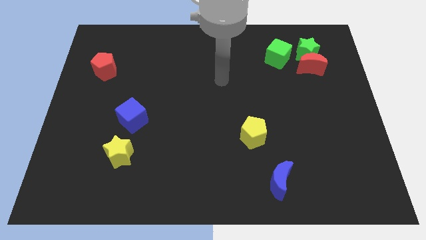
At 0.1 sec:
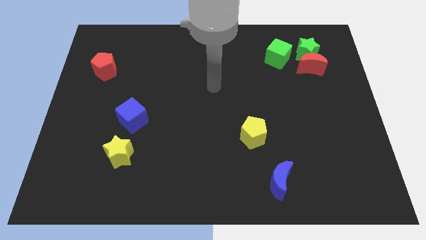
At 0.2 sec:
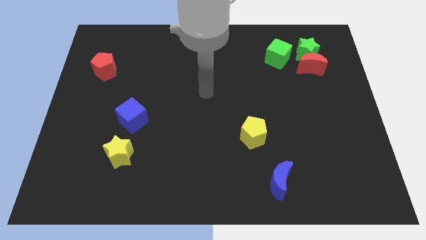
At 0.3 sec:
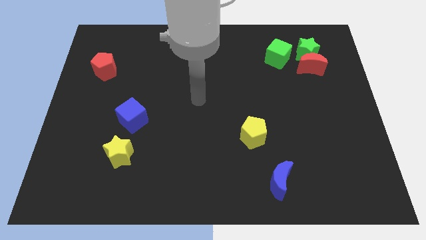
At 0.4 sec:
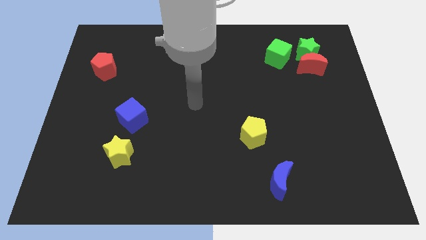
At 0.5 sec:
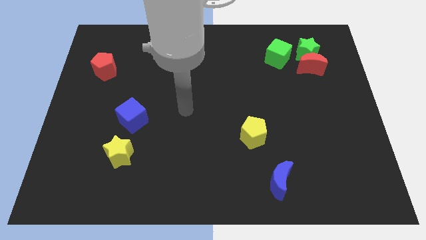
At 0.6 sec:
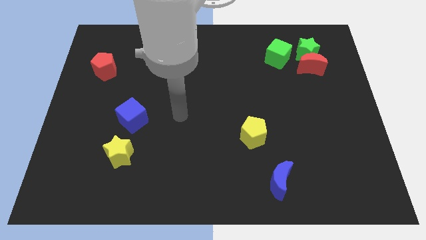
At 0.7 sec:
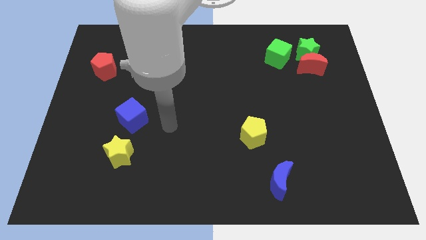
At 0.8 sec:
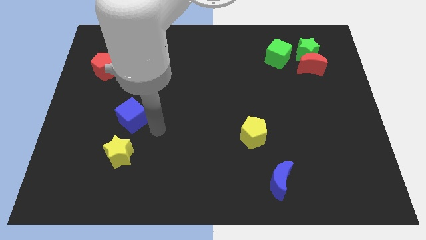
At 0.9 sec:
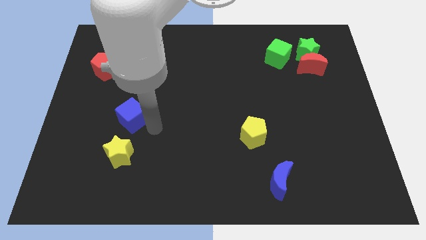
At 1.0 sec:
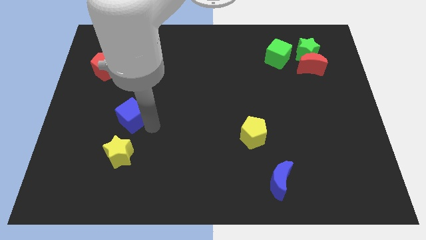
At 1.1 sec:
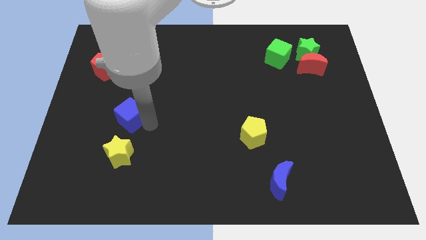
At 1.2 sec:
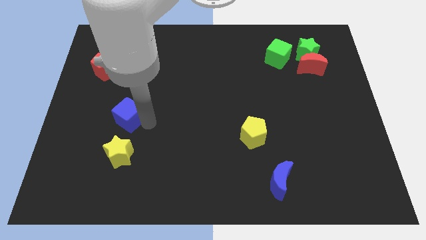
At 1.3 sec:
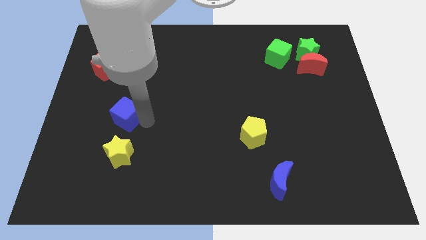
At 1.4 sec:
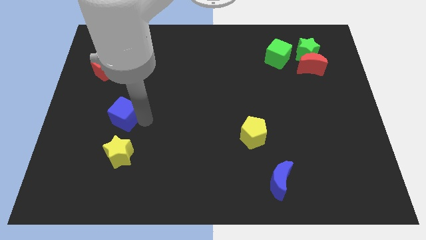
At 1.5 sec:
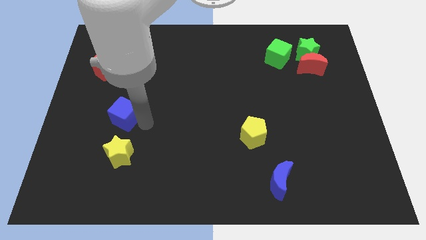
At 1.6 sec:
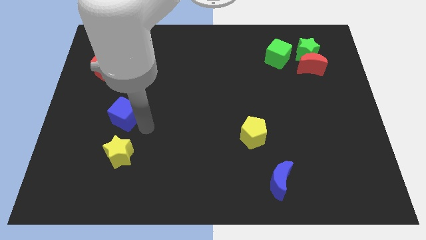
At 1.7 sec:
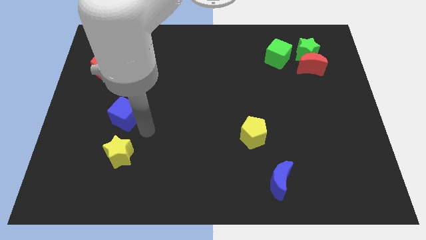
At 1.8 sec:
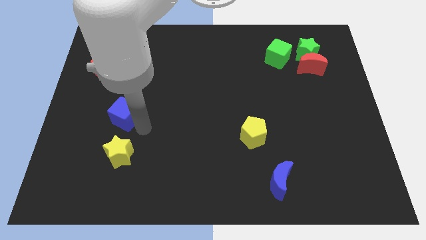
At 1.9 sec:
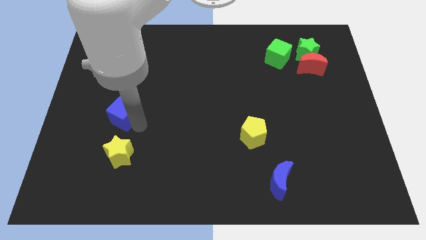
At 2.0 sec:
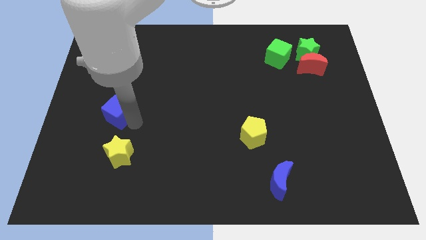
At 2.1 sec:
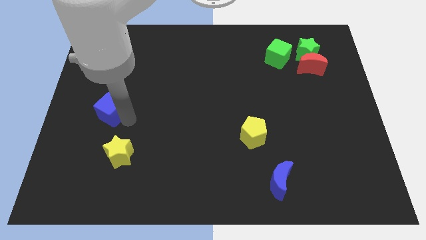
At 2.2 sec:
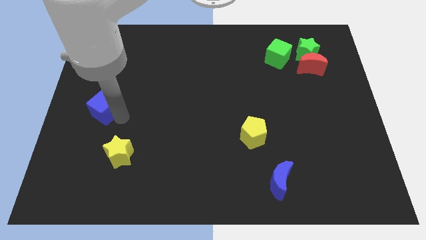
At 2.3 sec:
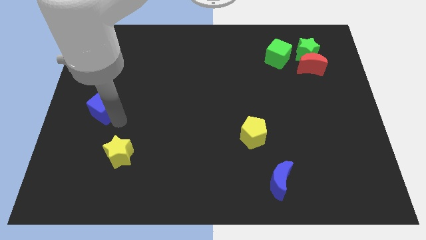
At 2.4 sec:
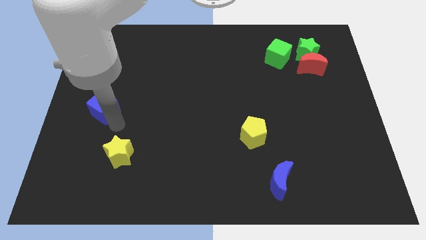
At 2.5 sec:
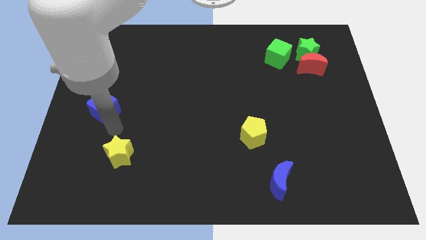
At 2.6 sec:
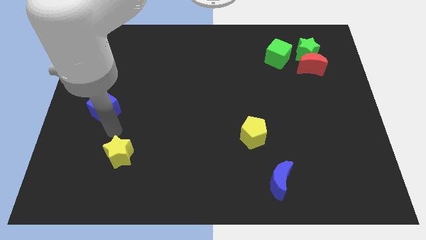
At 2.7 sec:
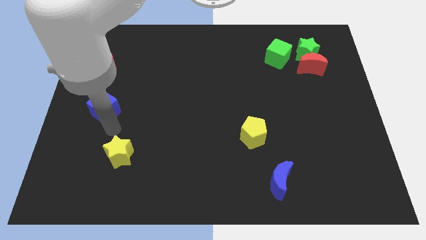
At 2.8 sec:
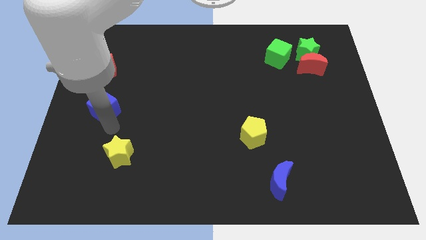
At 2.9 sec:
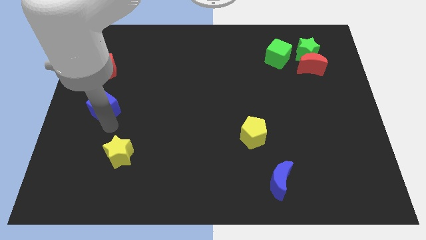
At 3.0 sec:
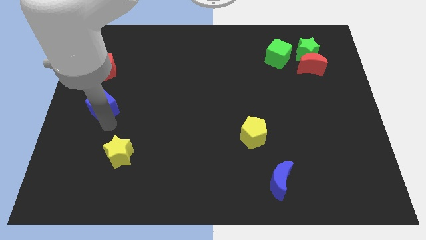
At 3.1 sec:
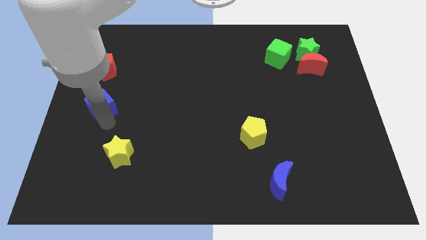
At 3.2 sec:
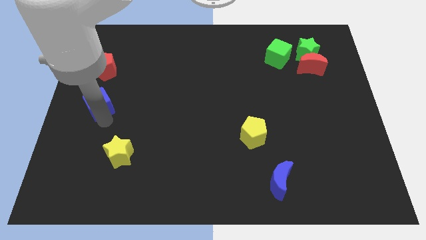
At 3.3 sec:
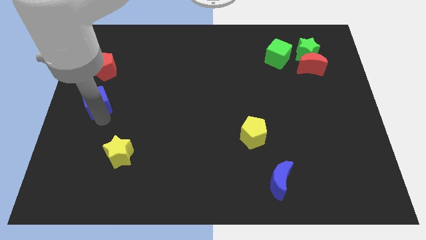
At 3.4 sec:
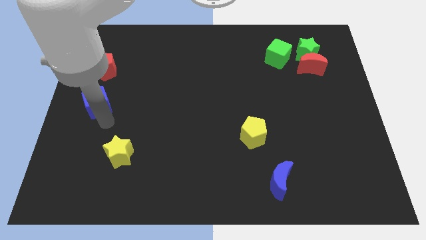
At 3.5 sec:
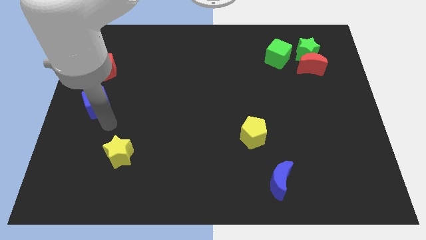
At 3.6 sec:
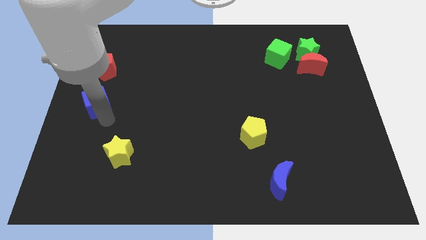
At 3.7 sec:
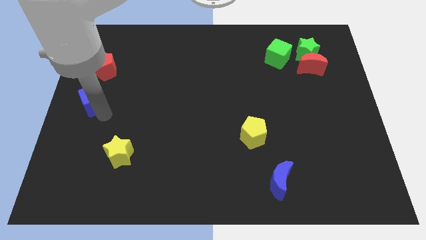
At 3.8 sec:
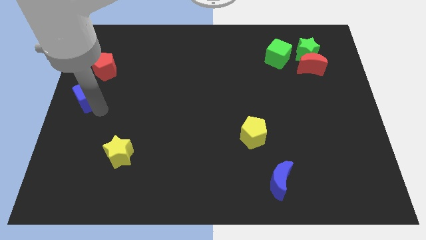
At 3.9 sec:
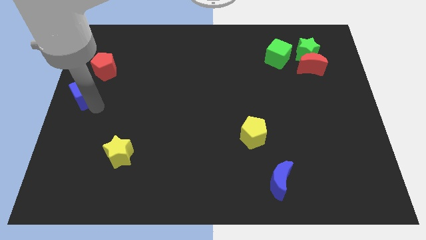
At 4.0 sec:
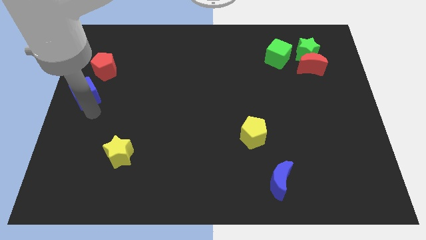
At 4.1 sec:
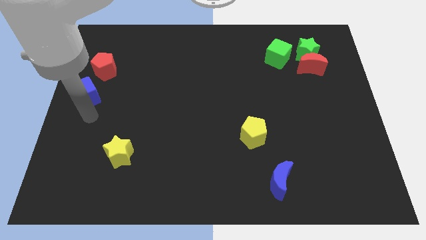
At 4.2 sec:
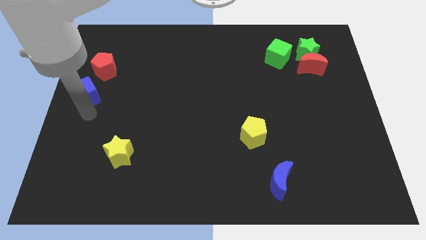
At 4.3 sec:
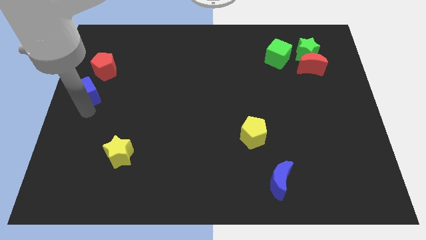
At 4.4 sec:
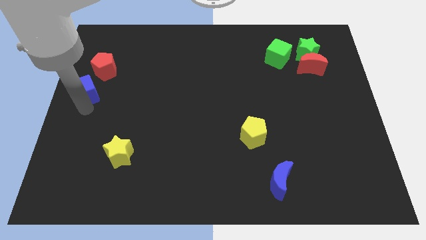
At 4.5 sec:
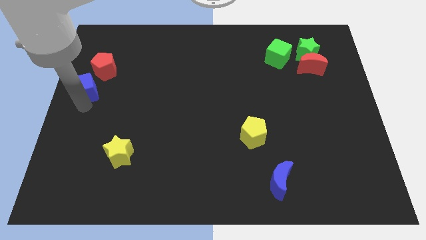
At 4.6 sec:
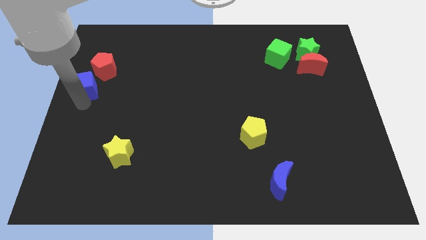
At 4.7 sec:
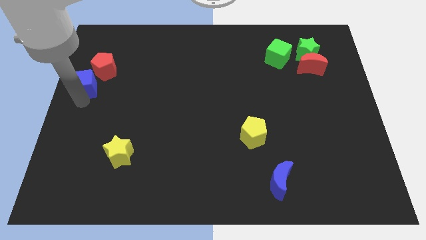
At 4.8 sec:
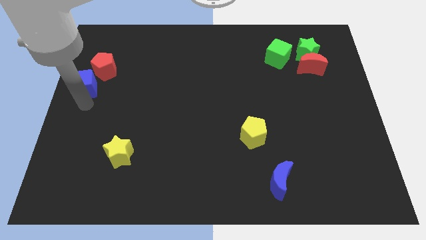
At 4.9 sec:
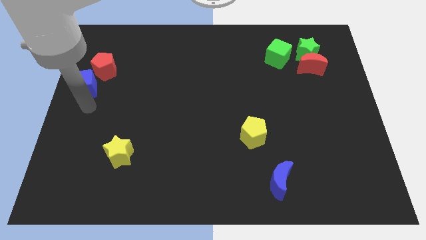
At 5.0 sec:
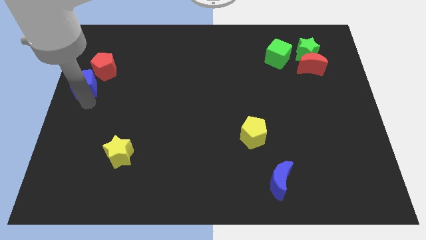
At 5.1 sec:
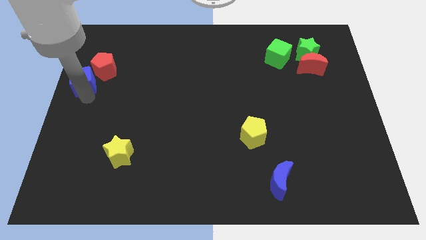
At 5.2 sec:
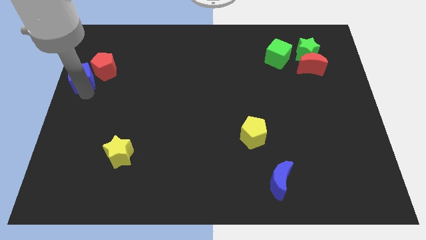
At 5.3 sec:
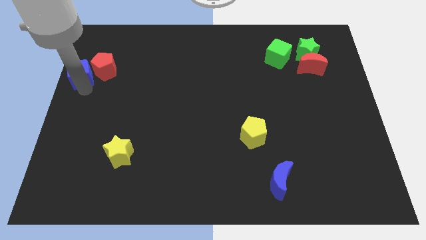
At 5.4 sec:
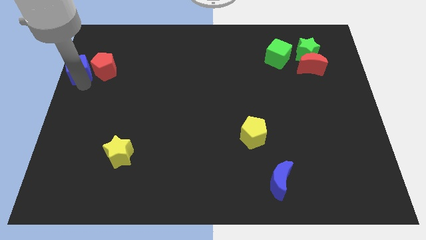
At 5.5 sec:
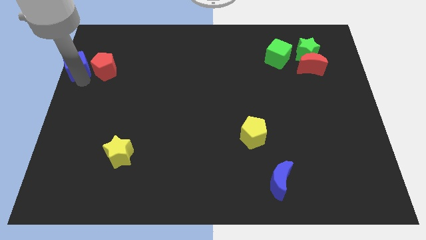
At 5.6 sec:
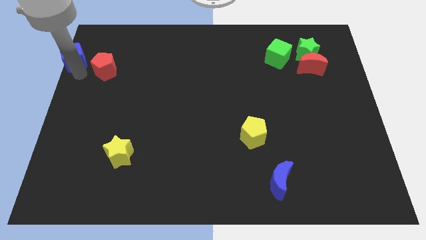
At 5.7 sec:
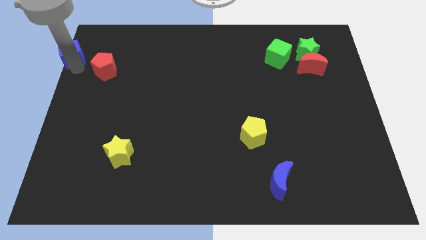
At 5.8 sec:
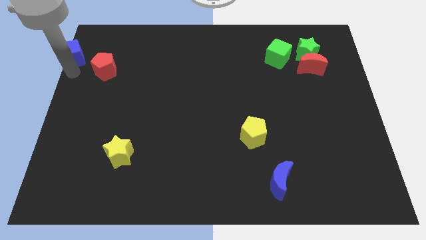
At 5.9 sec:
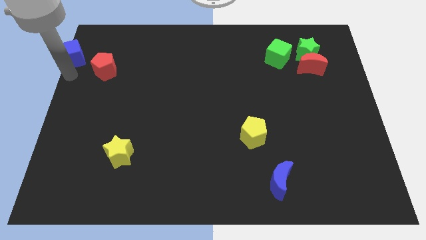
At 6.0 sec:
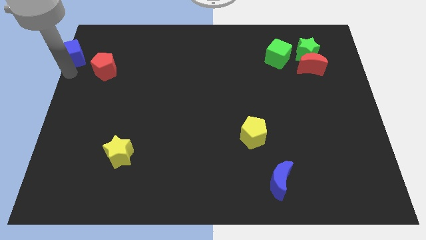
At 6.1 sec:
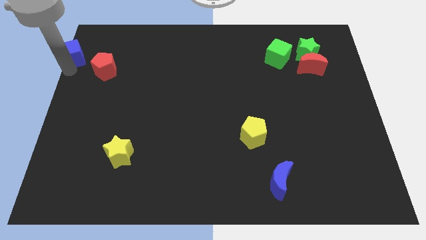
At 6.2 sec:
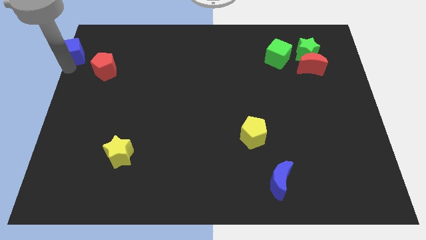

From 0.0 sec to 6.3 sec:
put the blue cube to the top left of the board

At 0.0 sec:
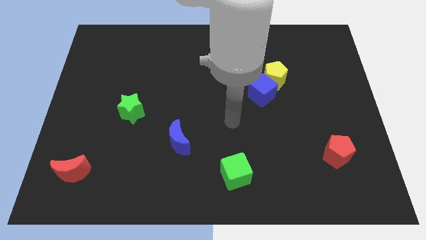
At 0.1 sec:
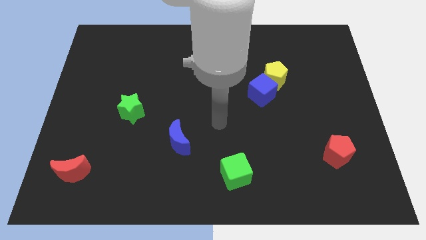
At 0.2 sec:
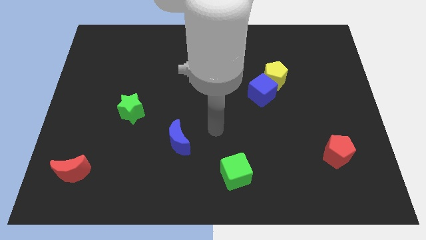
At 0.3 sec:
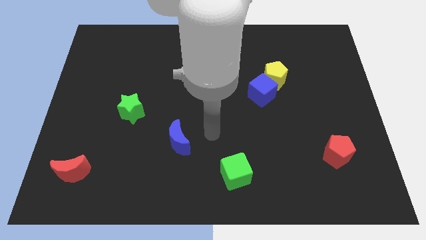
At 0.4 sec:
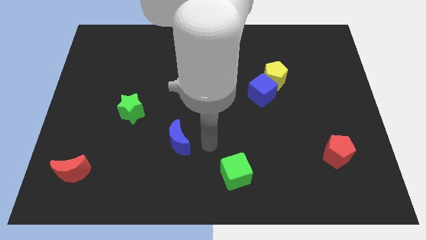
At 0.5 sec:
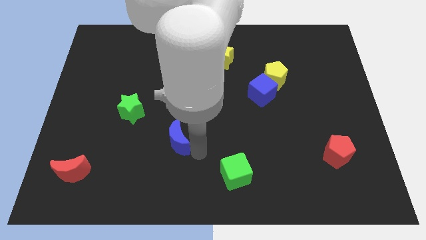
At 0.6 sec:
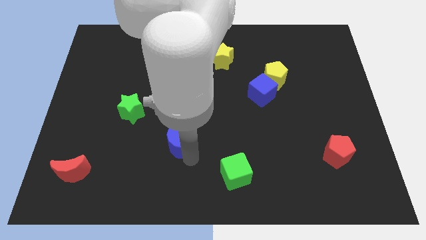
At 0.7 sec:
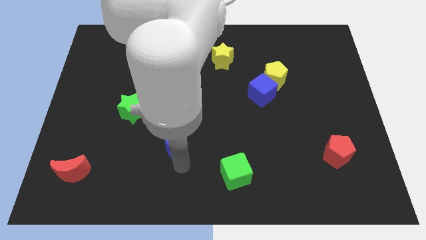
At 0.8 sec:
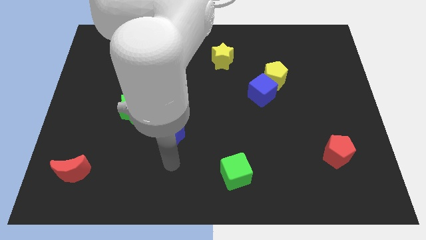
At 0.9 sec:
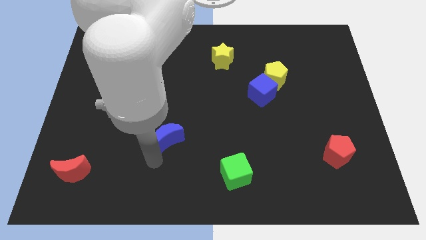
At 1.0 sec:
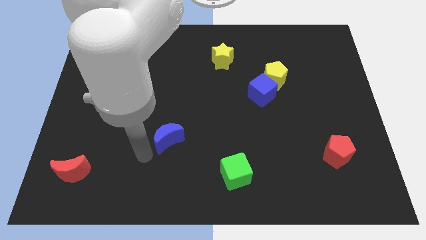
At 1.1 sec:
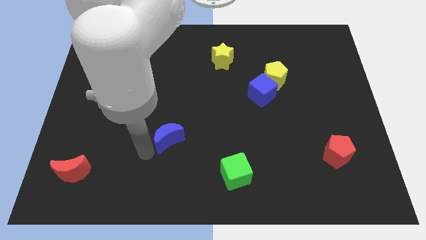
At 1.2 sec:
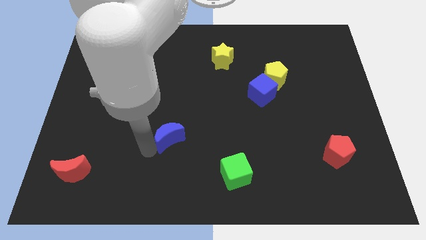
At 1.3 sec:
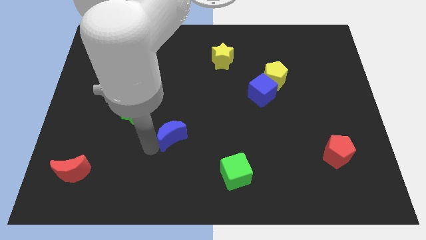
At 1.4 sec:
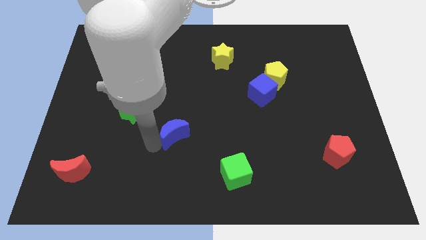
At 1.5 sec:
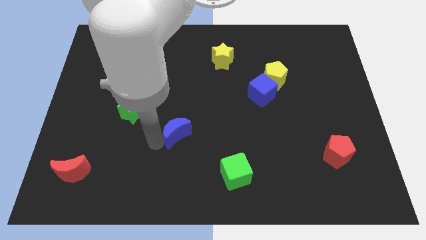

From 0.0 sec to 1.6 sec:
move the blue moon to the middle of the board
